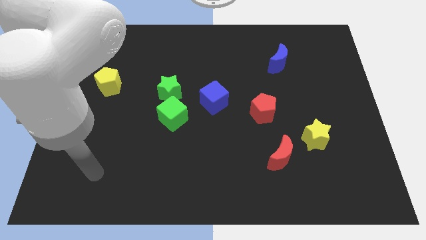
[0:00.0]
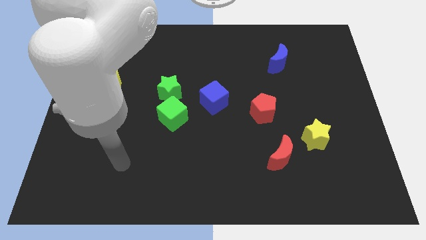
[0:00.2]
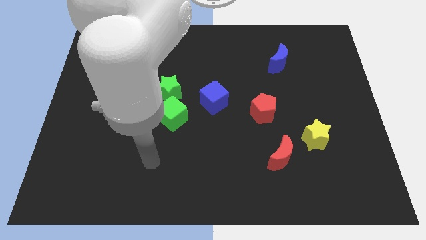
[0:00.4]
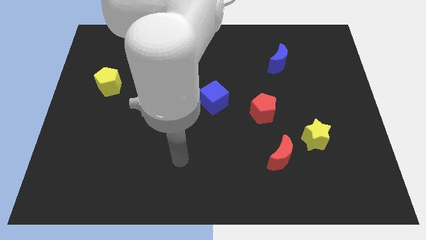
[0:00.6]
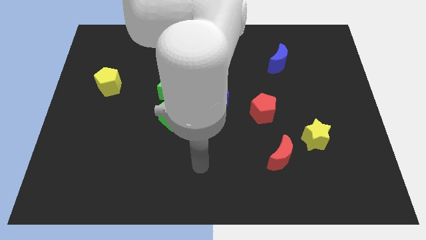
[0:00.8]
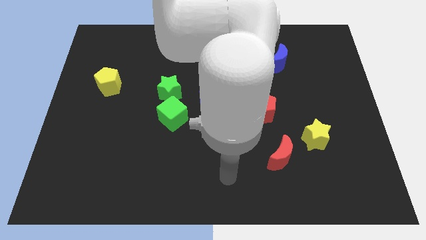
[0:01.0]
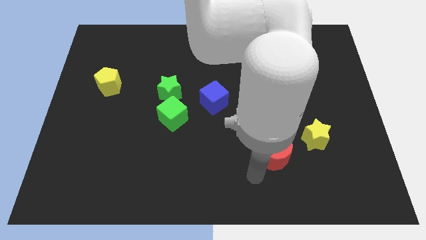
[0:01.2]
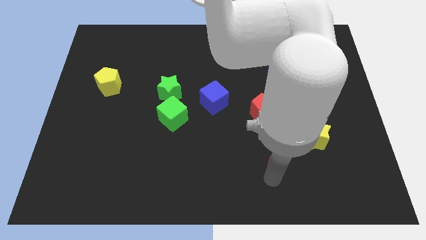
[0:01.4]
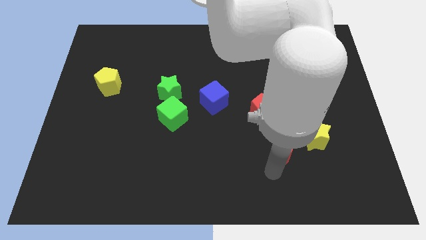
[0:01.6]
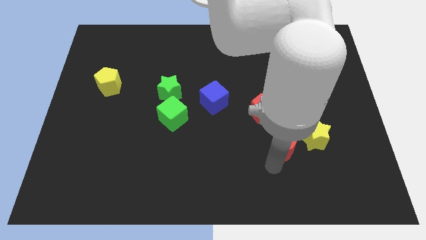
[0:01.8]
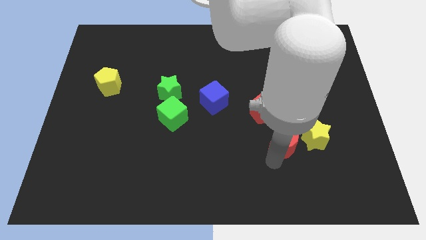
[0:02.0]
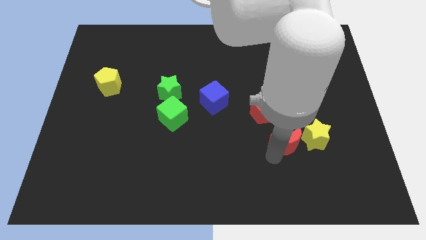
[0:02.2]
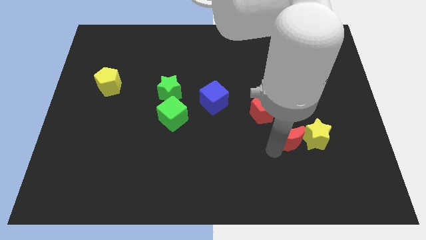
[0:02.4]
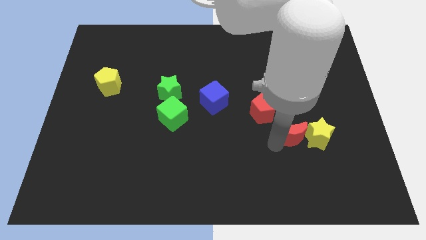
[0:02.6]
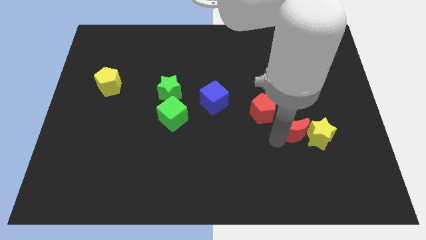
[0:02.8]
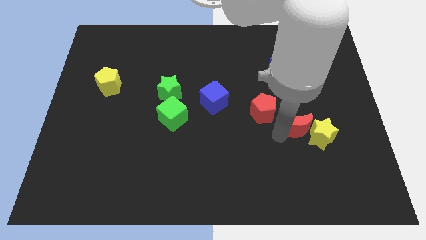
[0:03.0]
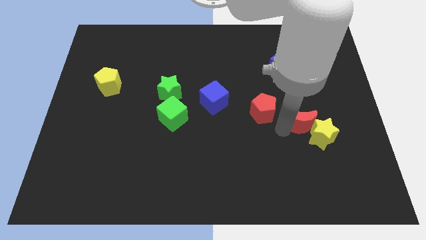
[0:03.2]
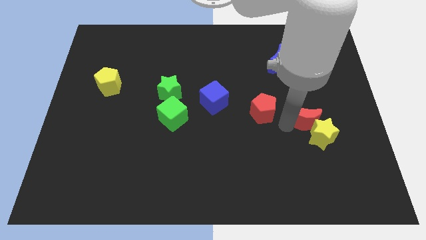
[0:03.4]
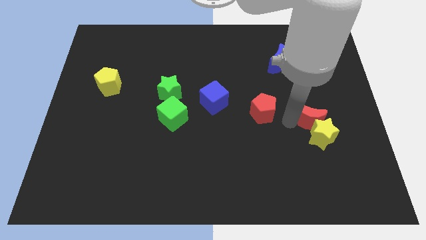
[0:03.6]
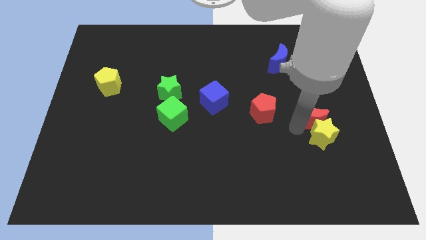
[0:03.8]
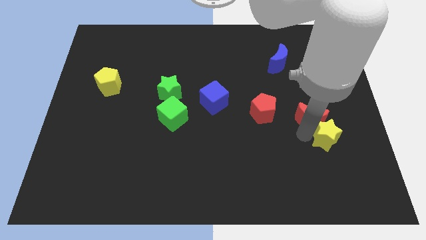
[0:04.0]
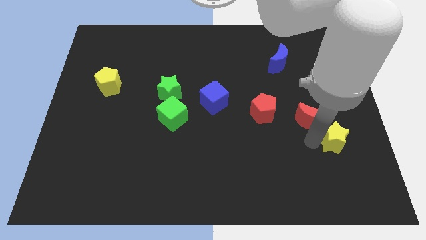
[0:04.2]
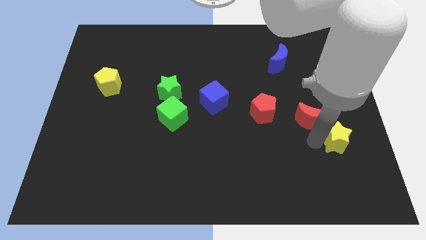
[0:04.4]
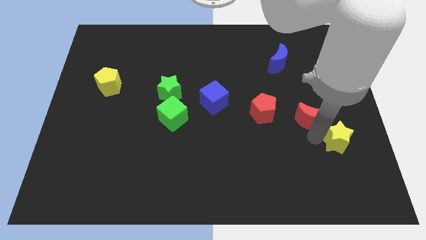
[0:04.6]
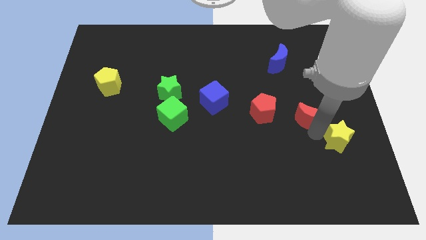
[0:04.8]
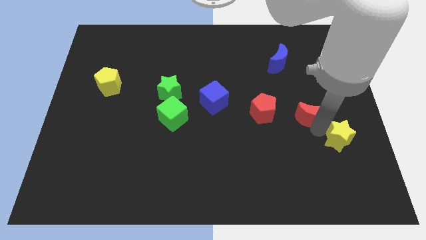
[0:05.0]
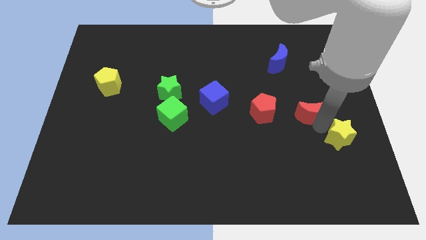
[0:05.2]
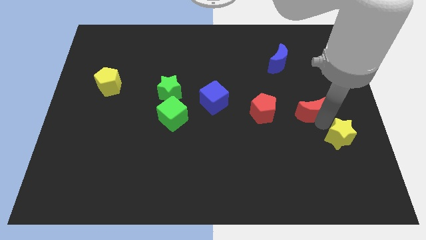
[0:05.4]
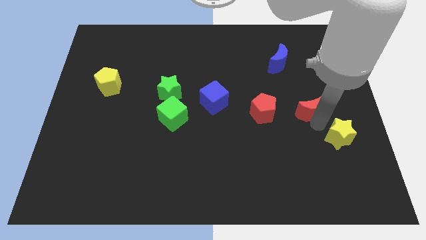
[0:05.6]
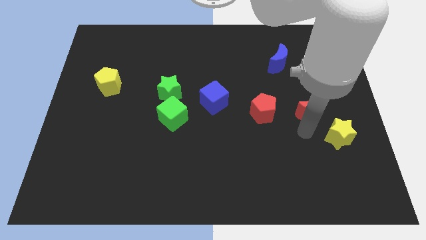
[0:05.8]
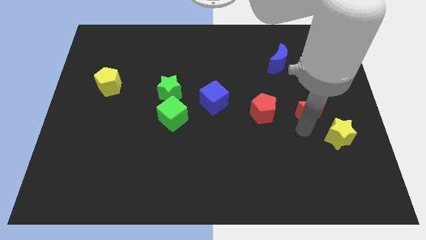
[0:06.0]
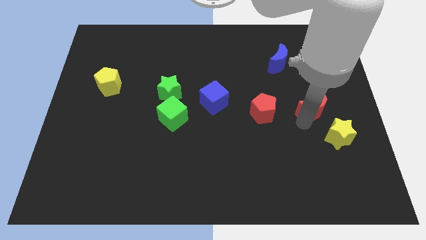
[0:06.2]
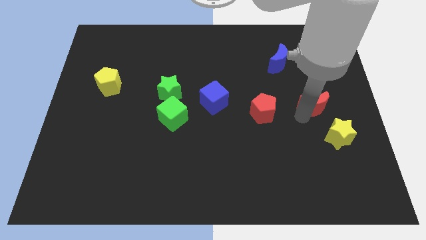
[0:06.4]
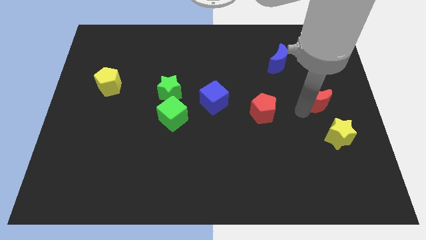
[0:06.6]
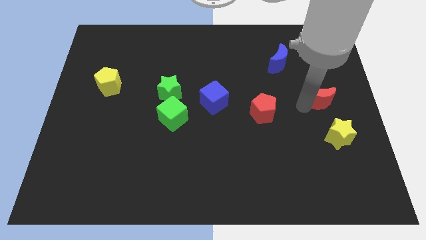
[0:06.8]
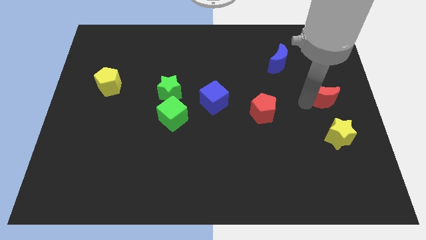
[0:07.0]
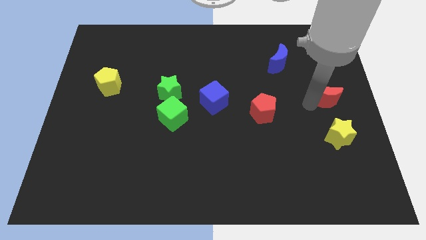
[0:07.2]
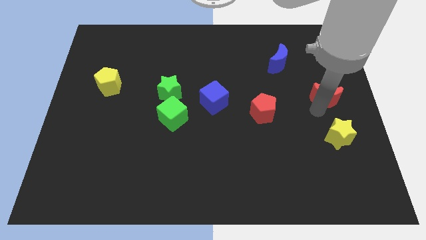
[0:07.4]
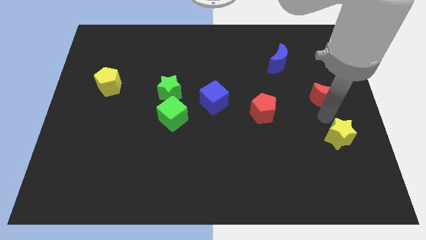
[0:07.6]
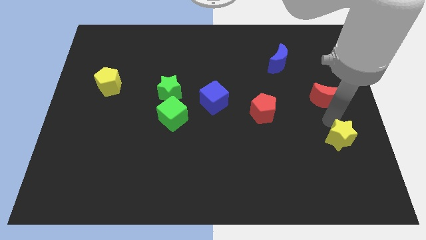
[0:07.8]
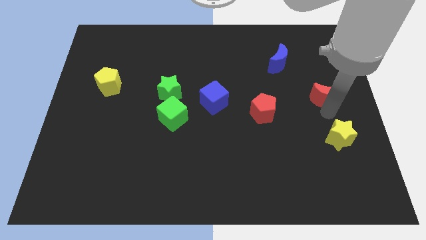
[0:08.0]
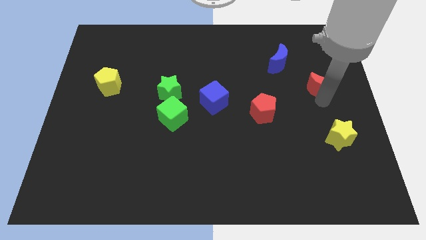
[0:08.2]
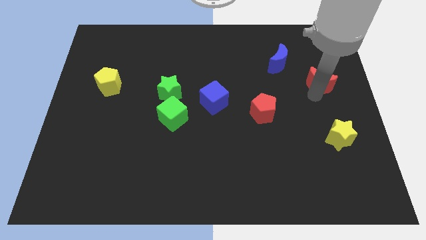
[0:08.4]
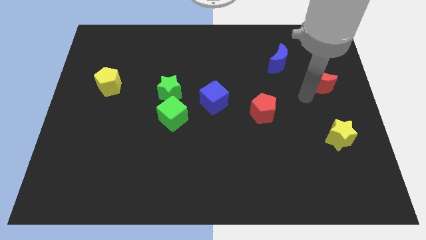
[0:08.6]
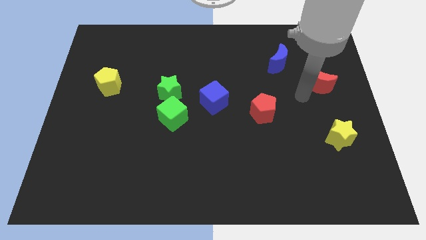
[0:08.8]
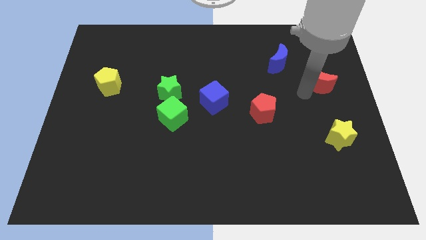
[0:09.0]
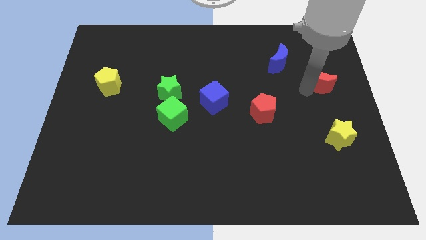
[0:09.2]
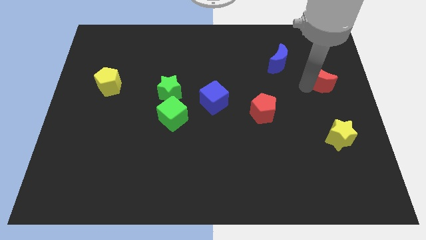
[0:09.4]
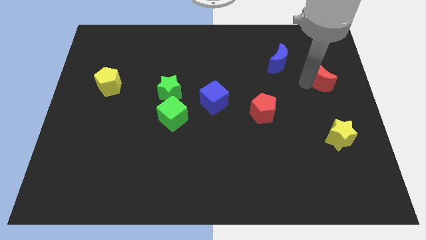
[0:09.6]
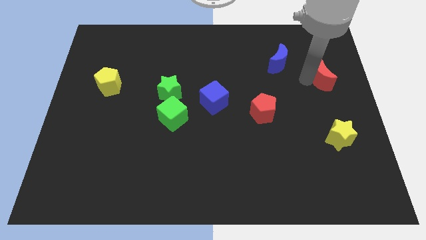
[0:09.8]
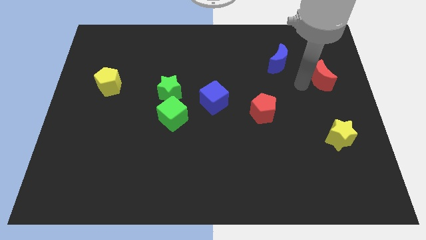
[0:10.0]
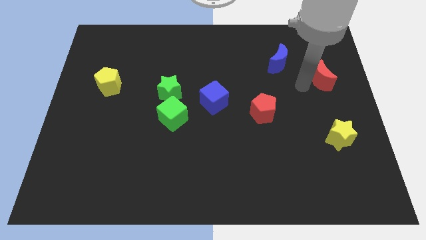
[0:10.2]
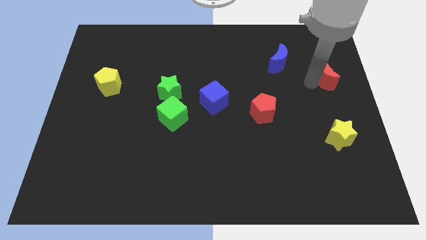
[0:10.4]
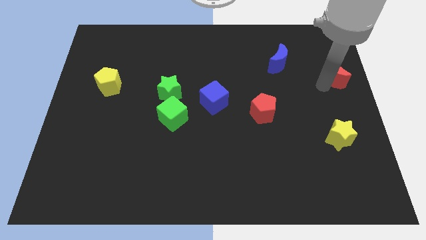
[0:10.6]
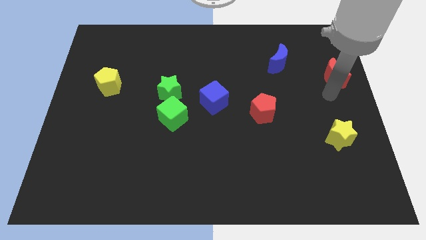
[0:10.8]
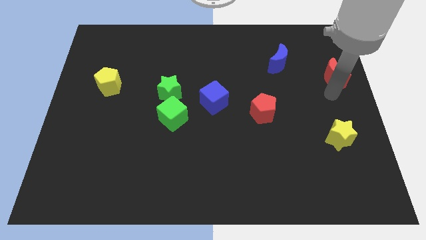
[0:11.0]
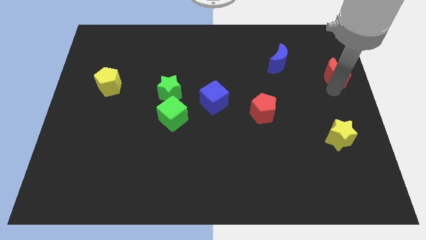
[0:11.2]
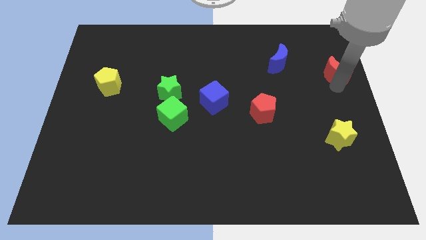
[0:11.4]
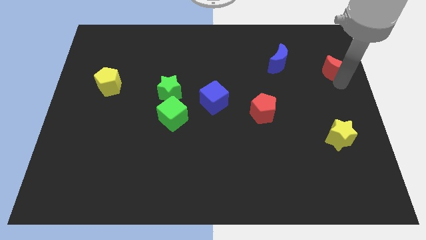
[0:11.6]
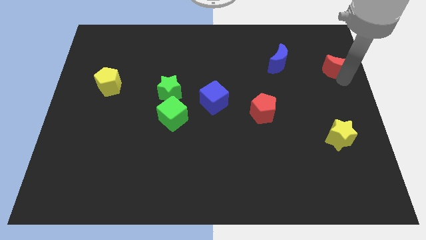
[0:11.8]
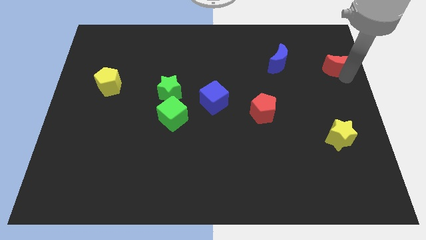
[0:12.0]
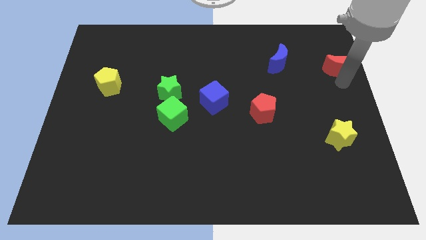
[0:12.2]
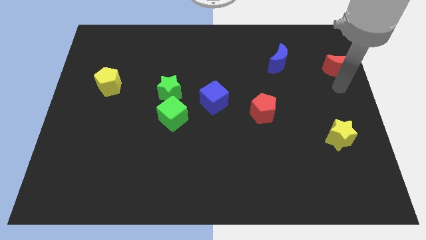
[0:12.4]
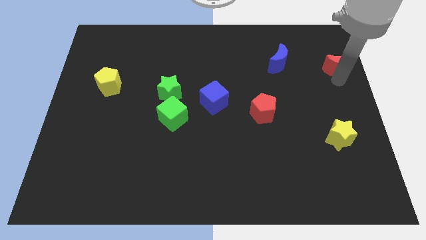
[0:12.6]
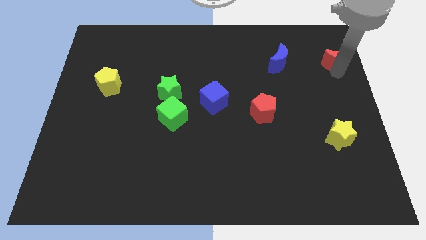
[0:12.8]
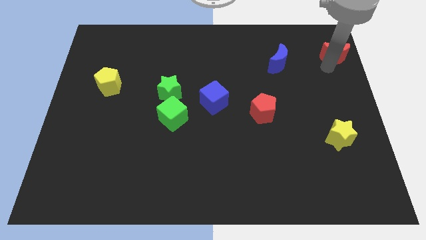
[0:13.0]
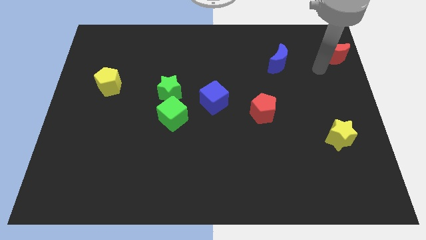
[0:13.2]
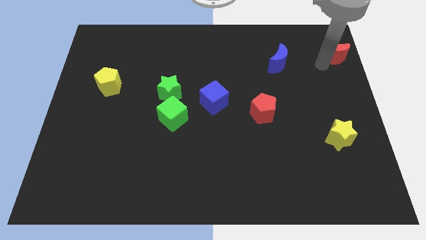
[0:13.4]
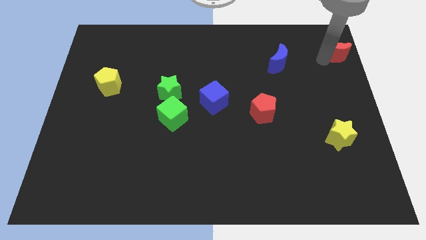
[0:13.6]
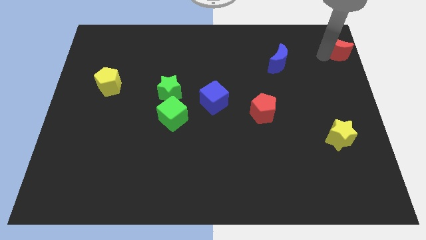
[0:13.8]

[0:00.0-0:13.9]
push the red moon to the top right corner

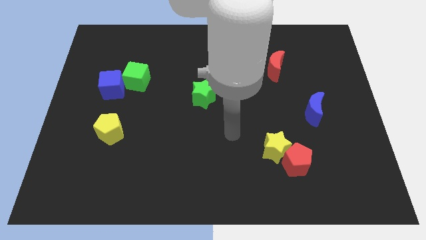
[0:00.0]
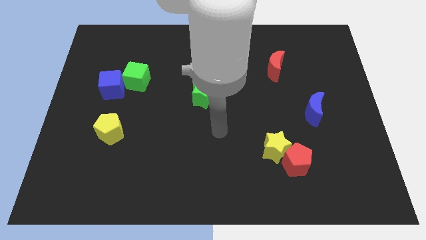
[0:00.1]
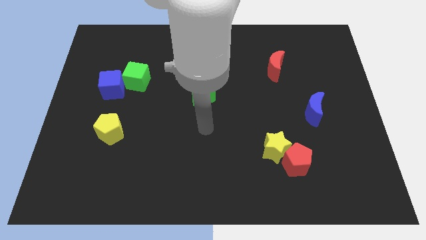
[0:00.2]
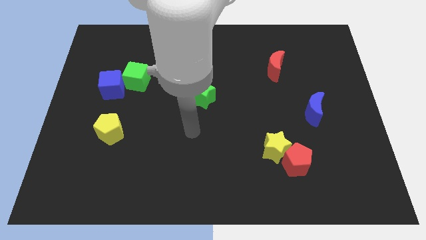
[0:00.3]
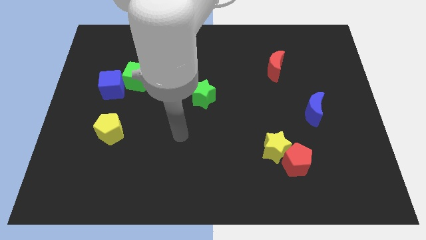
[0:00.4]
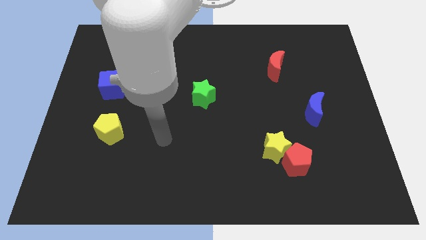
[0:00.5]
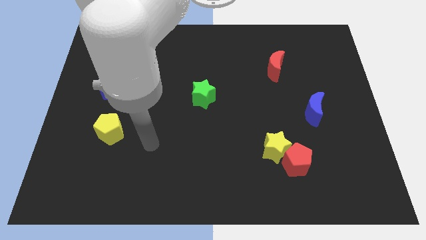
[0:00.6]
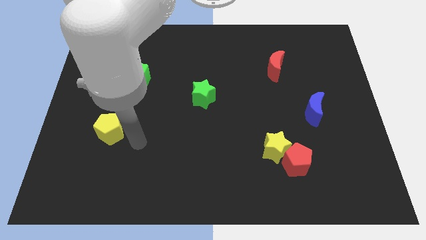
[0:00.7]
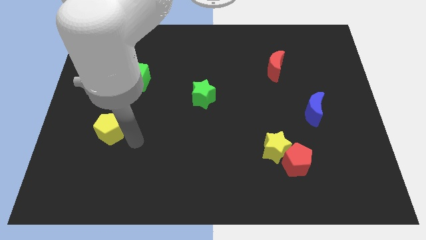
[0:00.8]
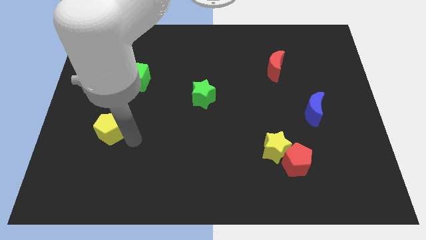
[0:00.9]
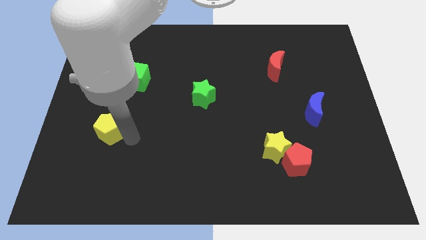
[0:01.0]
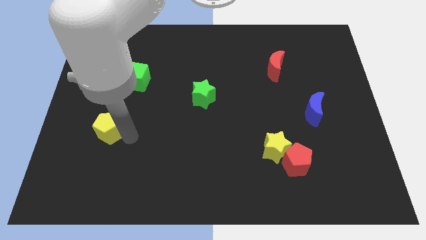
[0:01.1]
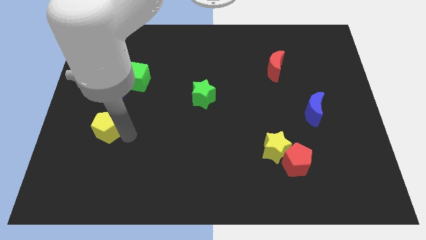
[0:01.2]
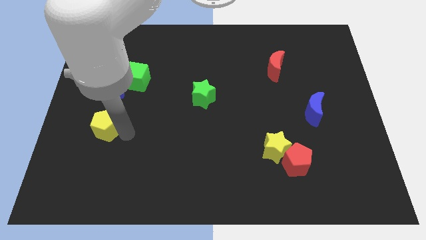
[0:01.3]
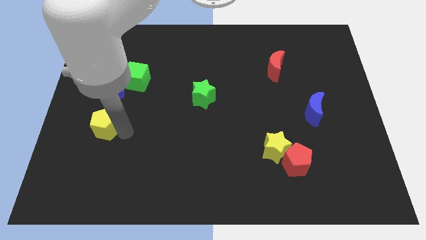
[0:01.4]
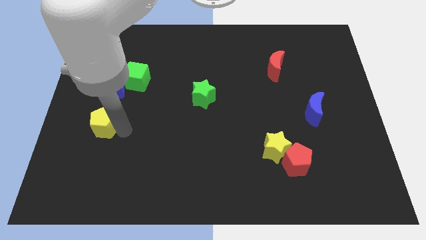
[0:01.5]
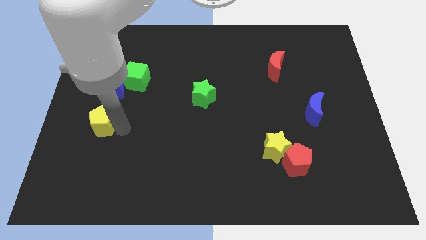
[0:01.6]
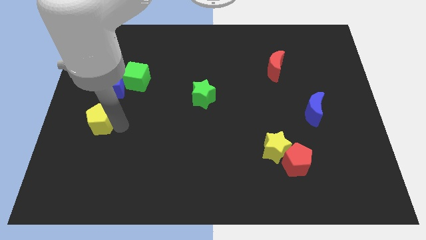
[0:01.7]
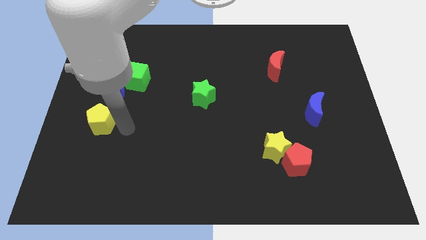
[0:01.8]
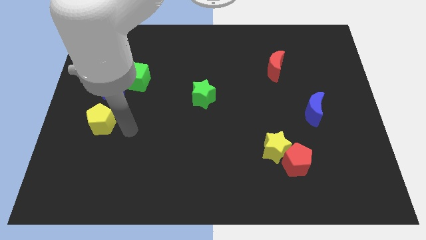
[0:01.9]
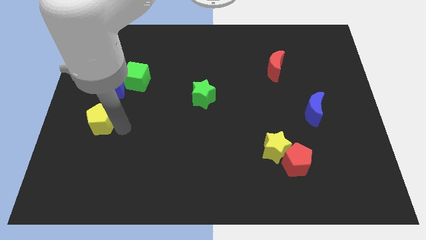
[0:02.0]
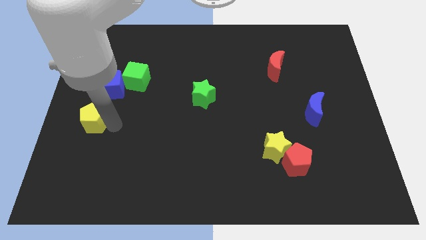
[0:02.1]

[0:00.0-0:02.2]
push the yellow pentagon to the left side
